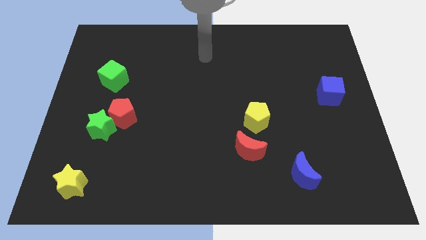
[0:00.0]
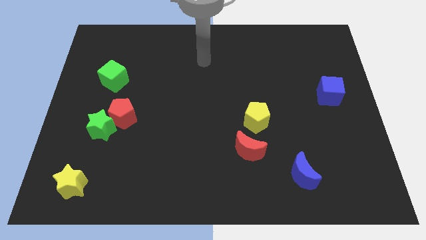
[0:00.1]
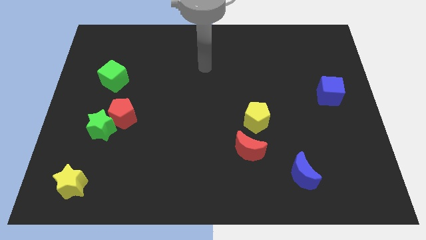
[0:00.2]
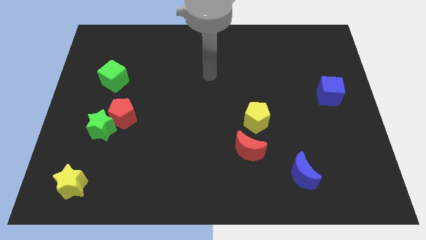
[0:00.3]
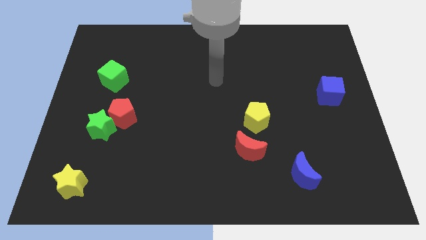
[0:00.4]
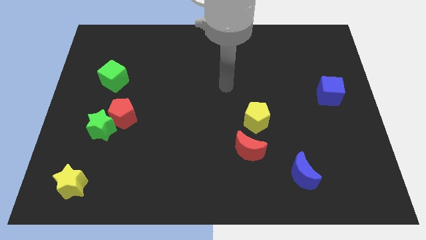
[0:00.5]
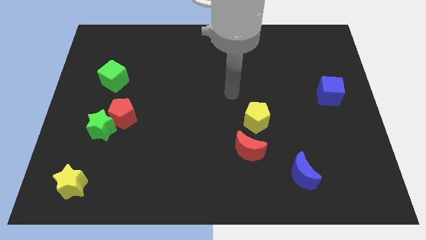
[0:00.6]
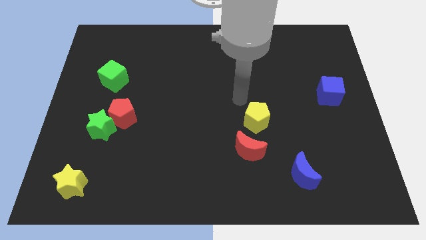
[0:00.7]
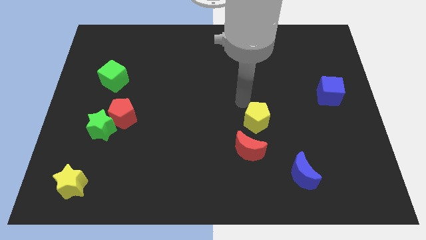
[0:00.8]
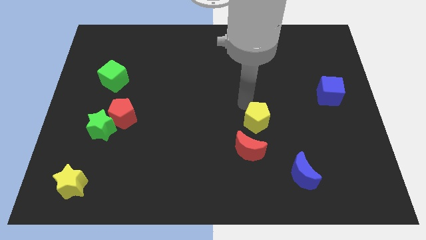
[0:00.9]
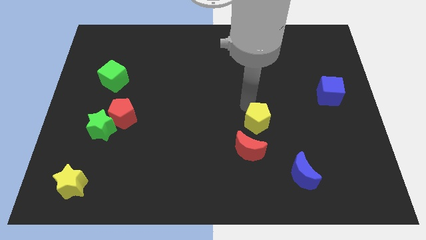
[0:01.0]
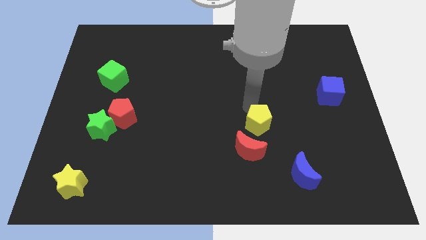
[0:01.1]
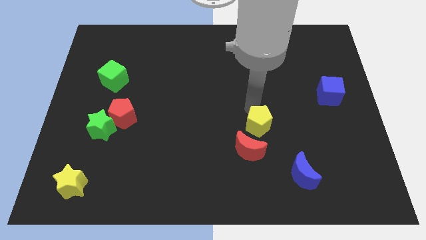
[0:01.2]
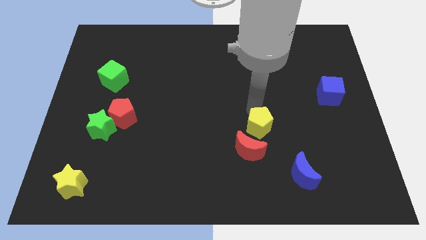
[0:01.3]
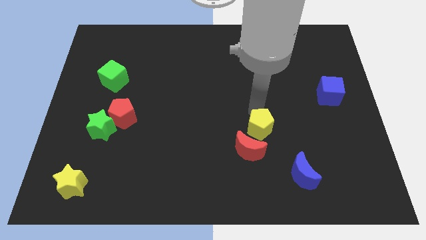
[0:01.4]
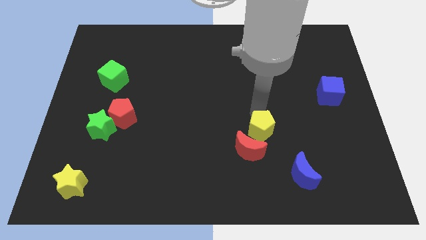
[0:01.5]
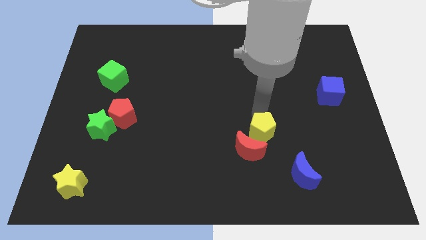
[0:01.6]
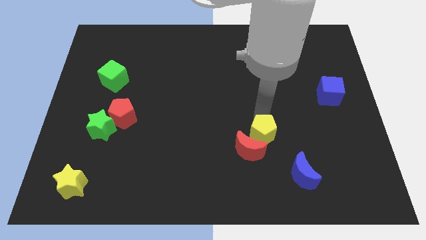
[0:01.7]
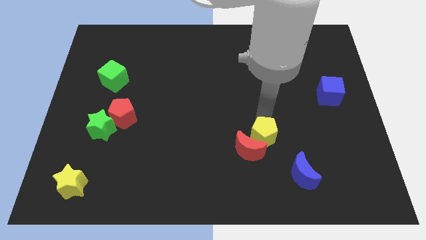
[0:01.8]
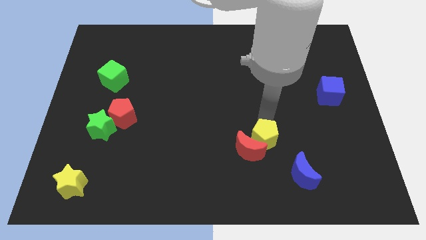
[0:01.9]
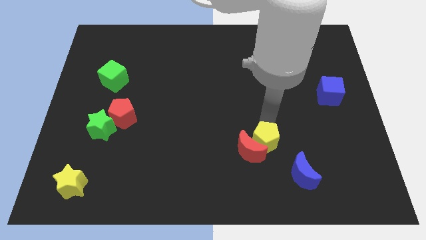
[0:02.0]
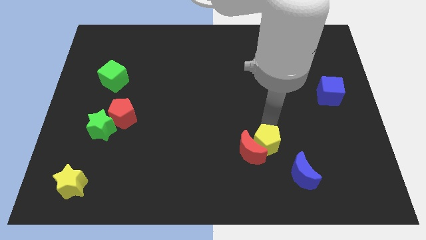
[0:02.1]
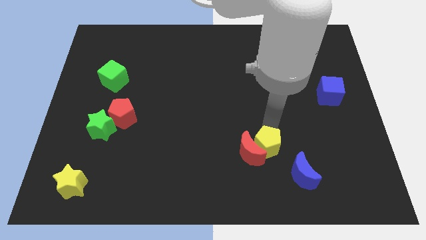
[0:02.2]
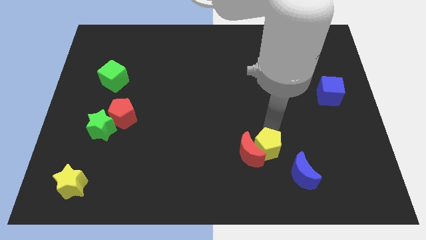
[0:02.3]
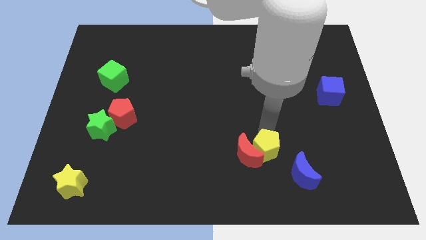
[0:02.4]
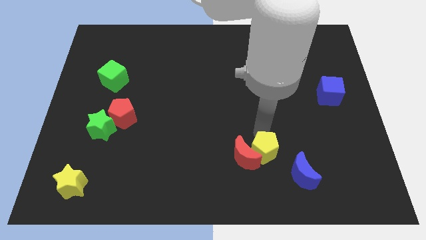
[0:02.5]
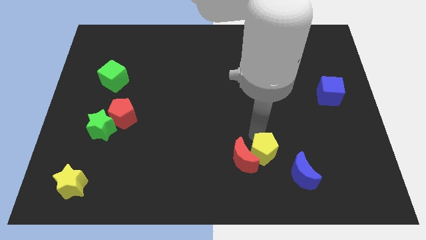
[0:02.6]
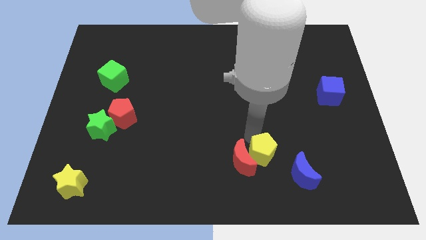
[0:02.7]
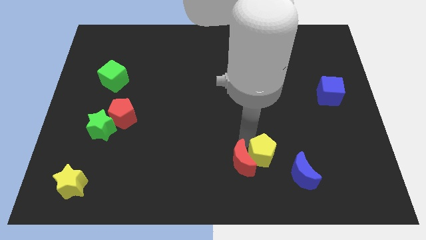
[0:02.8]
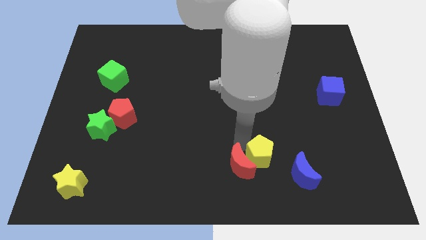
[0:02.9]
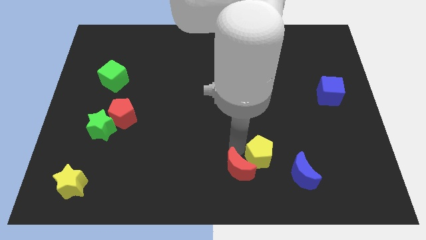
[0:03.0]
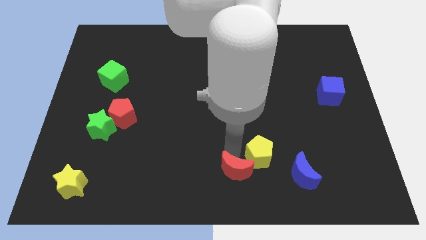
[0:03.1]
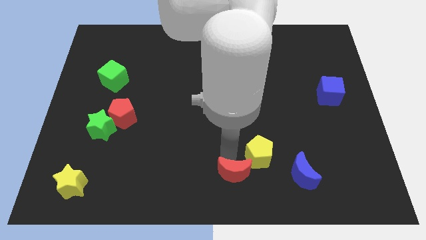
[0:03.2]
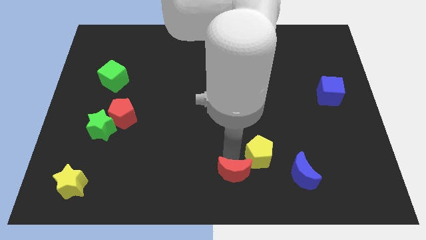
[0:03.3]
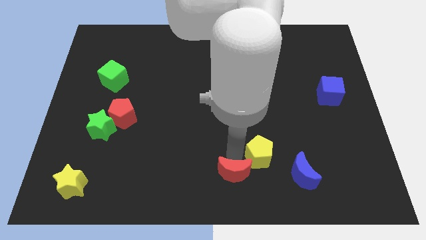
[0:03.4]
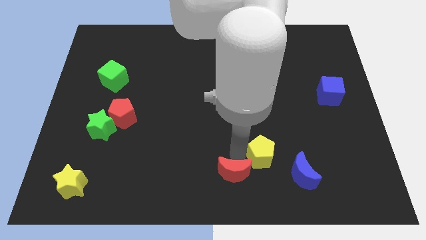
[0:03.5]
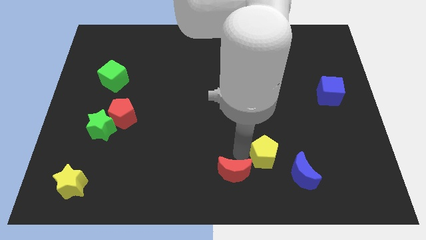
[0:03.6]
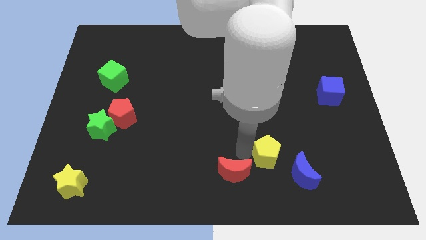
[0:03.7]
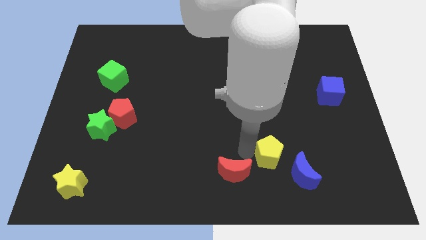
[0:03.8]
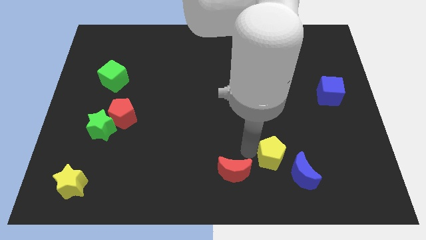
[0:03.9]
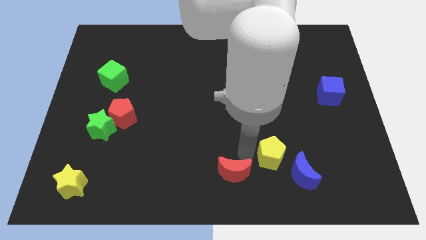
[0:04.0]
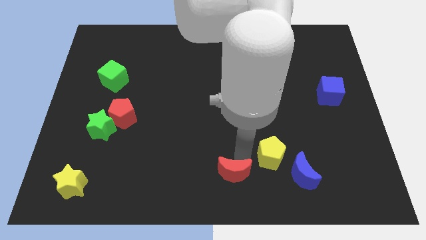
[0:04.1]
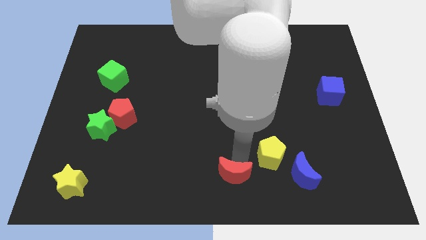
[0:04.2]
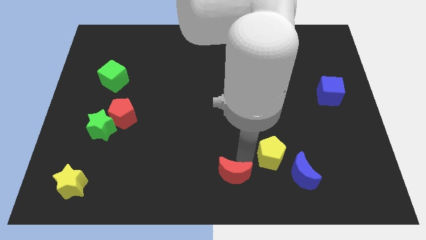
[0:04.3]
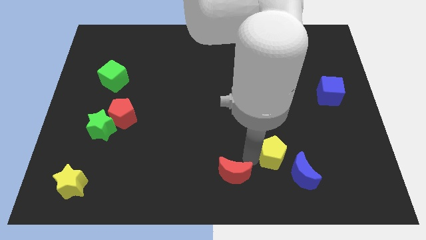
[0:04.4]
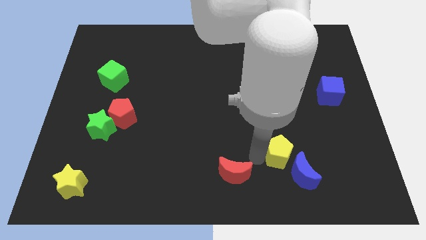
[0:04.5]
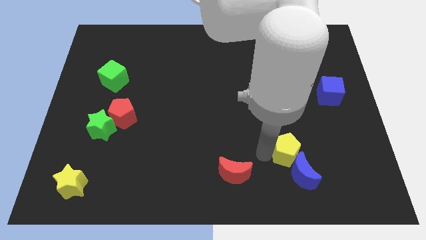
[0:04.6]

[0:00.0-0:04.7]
slide the yellow pentagon next to the blue moon

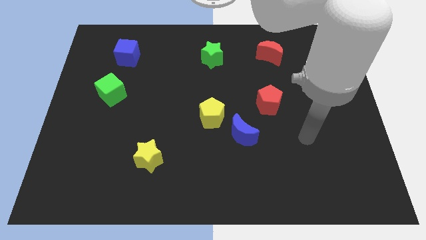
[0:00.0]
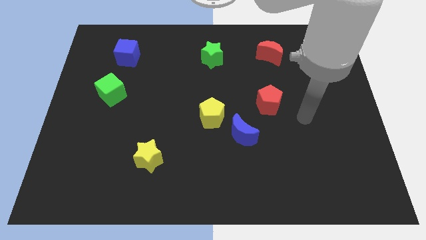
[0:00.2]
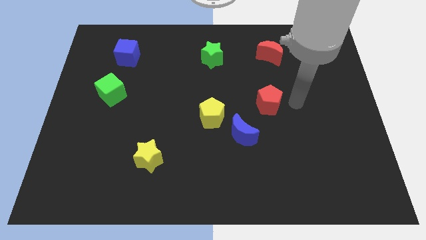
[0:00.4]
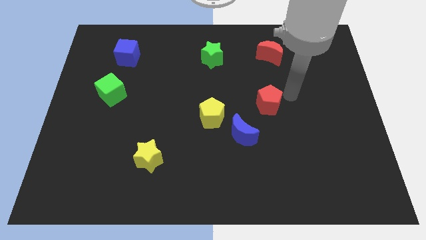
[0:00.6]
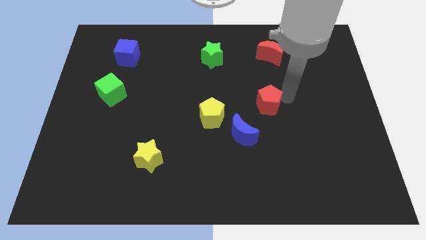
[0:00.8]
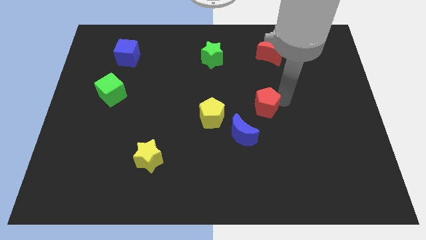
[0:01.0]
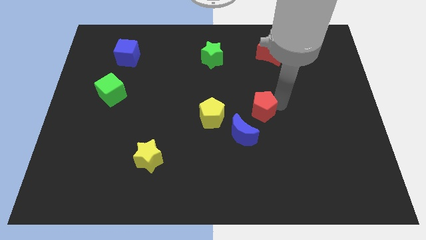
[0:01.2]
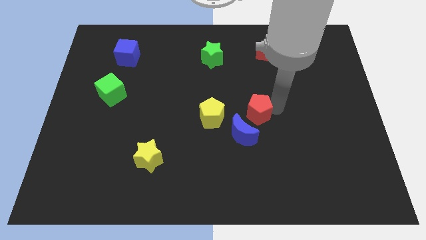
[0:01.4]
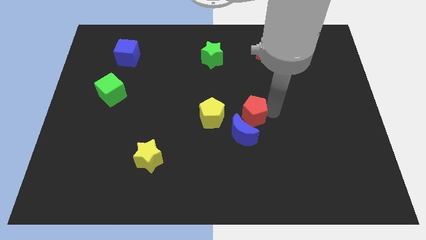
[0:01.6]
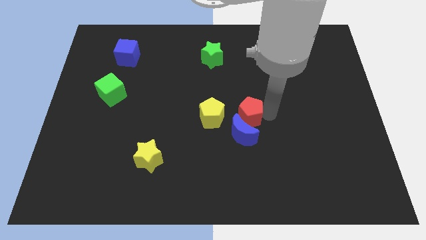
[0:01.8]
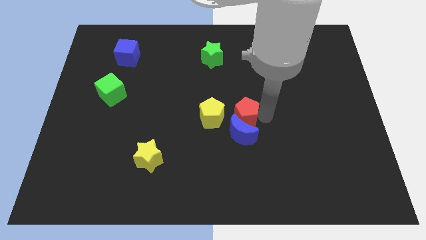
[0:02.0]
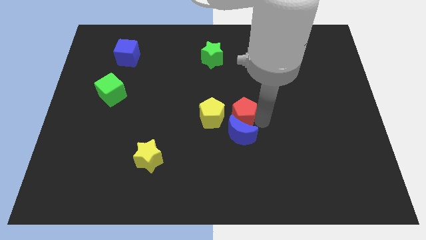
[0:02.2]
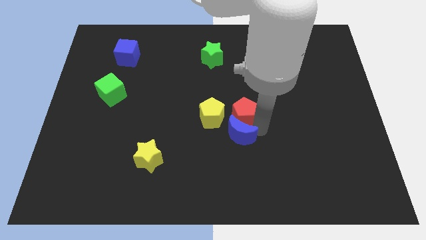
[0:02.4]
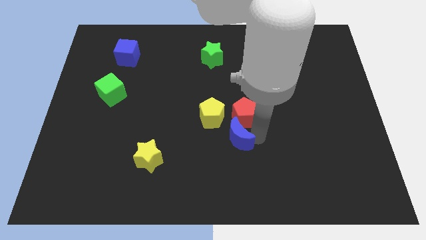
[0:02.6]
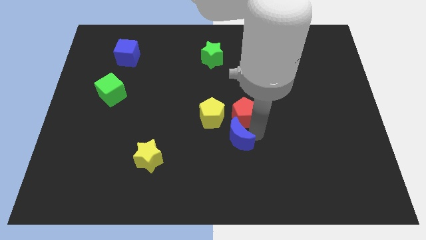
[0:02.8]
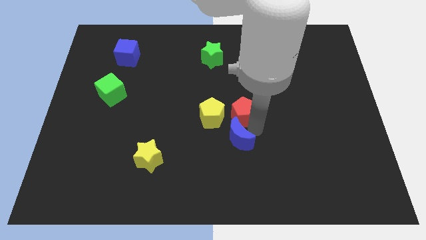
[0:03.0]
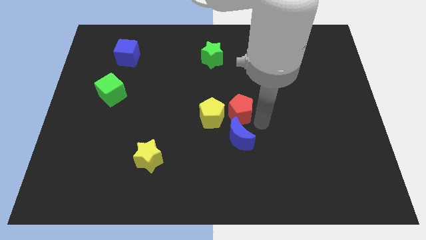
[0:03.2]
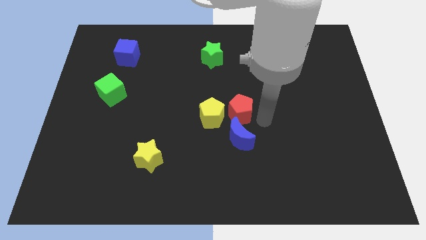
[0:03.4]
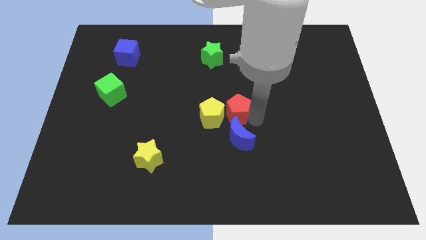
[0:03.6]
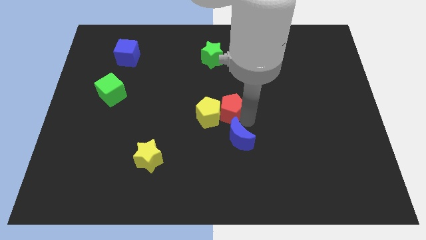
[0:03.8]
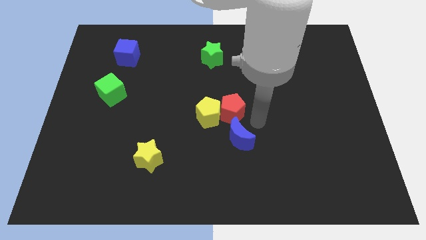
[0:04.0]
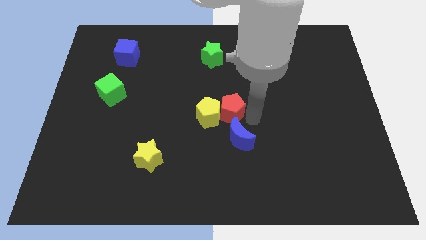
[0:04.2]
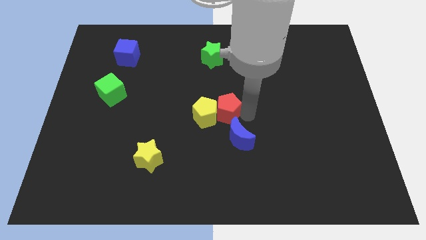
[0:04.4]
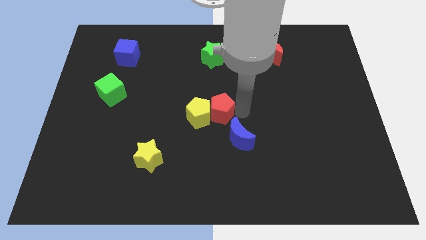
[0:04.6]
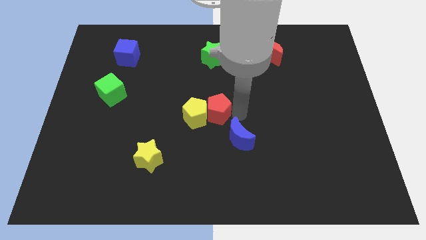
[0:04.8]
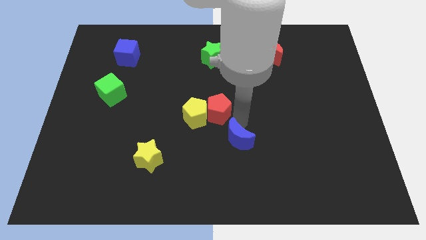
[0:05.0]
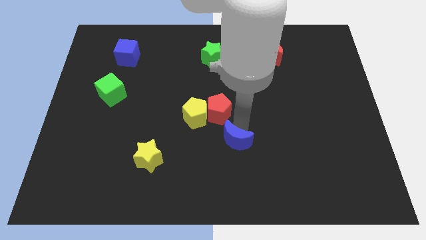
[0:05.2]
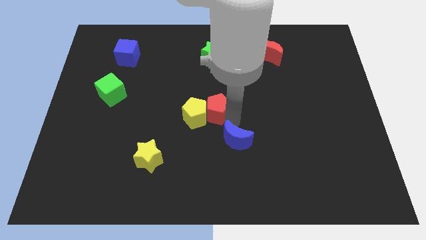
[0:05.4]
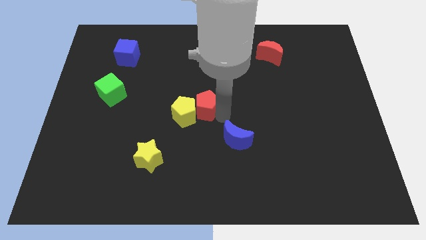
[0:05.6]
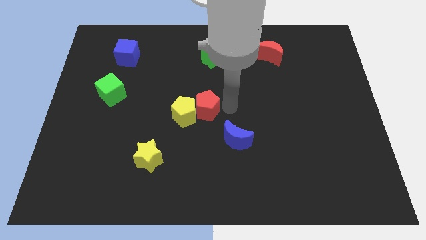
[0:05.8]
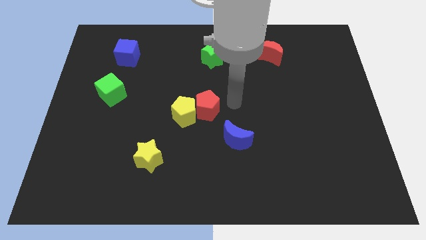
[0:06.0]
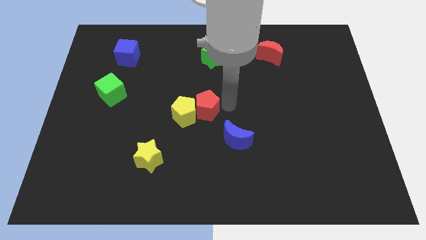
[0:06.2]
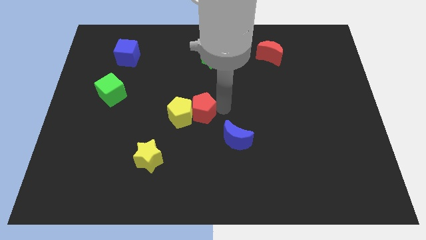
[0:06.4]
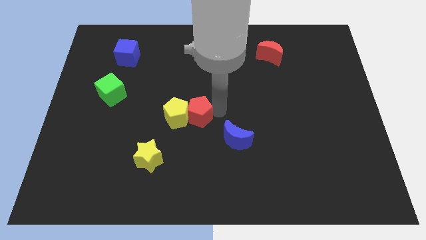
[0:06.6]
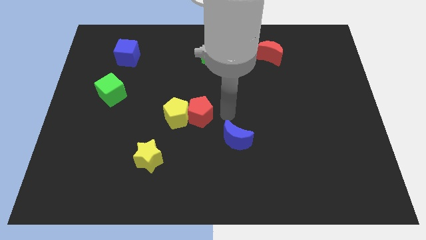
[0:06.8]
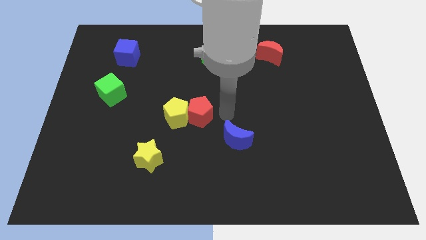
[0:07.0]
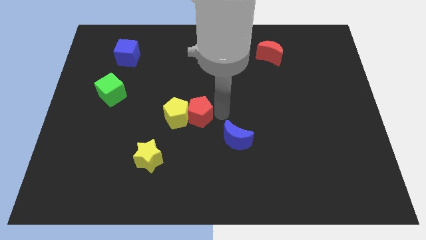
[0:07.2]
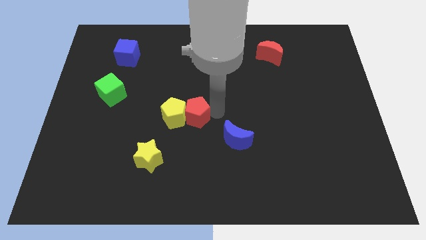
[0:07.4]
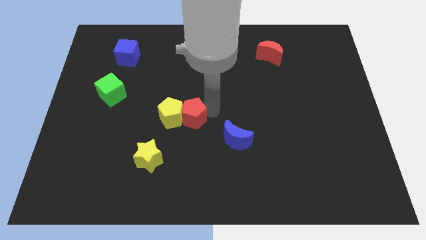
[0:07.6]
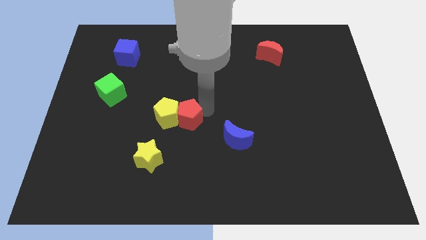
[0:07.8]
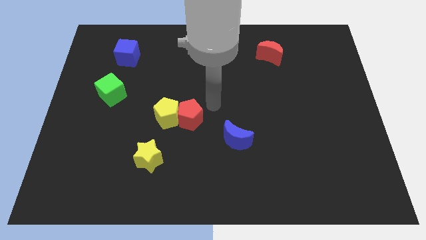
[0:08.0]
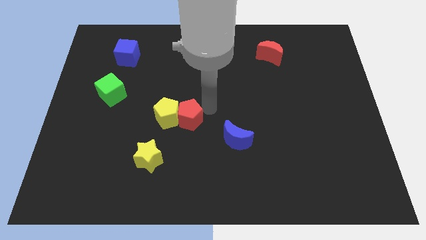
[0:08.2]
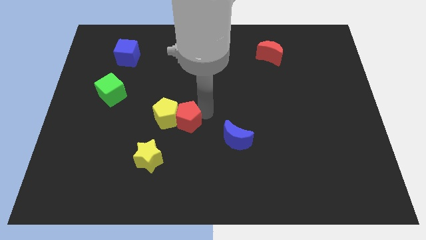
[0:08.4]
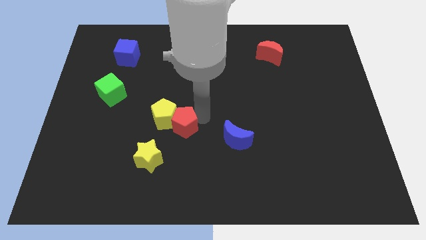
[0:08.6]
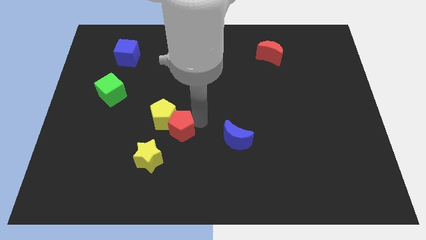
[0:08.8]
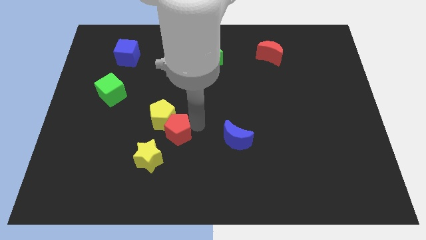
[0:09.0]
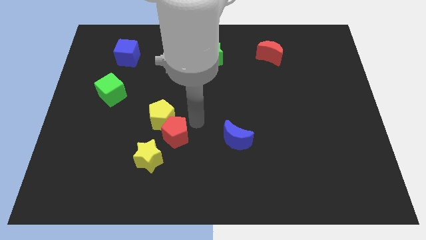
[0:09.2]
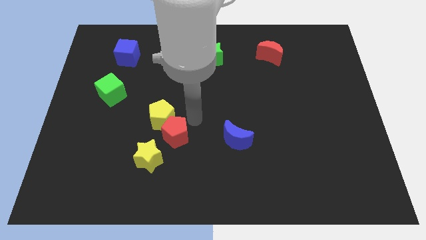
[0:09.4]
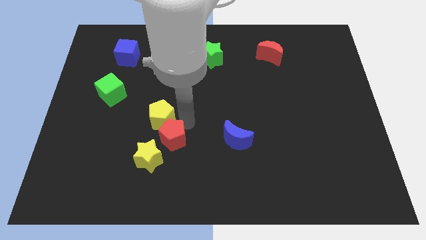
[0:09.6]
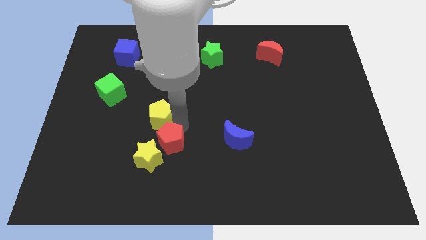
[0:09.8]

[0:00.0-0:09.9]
push the red pentagon close to the yellow star
